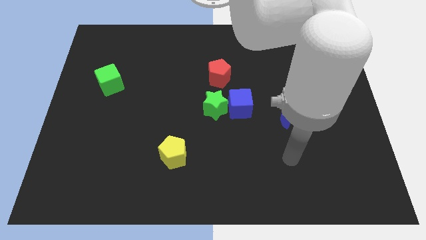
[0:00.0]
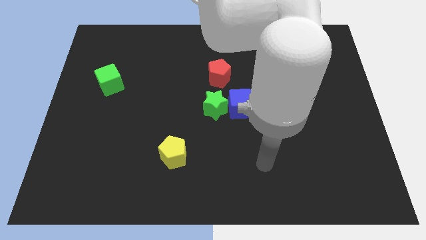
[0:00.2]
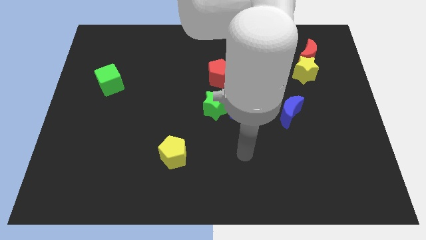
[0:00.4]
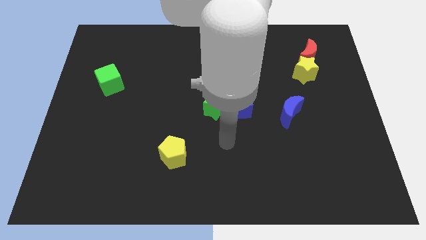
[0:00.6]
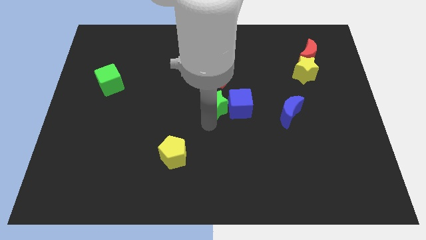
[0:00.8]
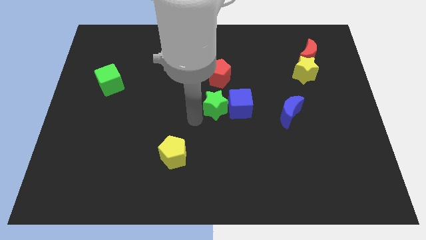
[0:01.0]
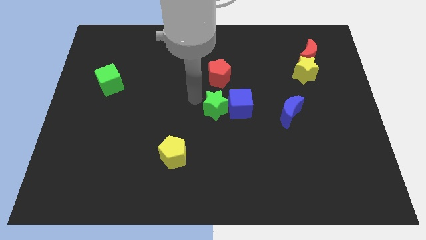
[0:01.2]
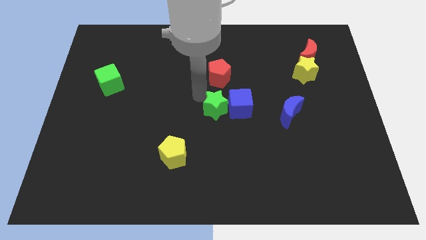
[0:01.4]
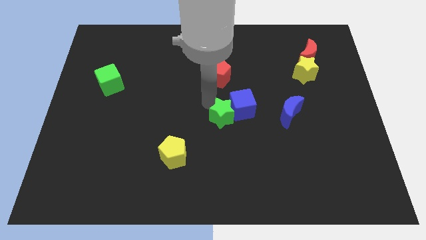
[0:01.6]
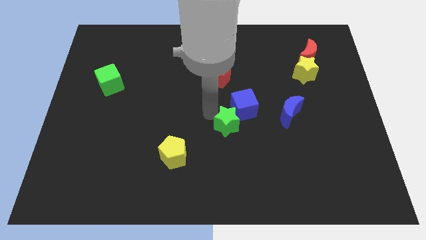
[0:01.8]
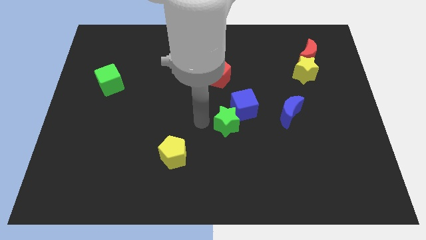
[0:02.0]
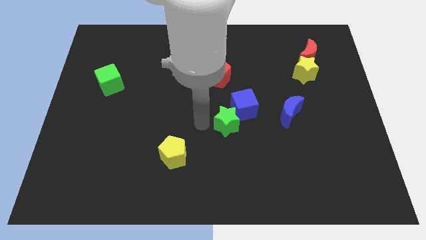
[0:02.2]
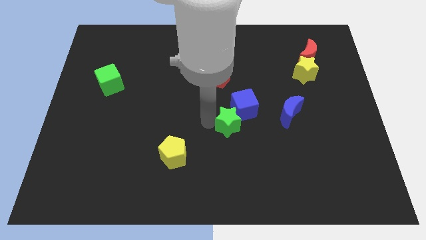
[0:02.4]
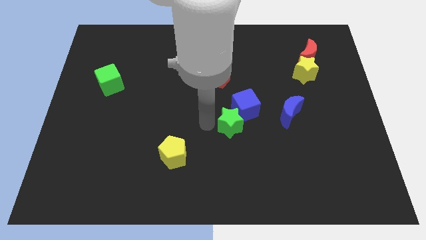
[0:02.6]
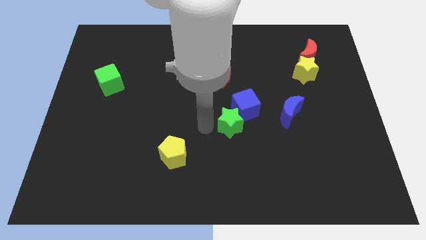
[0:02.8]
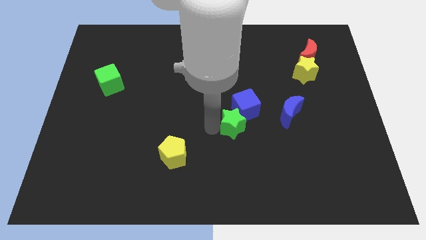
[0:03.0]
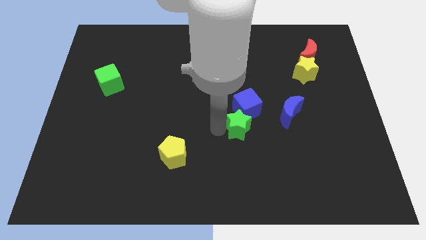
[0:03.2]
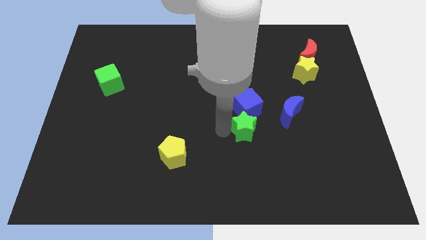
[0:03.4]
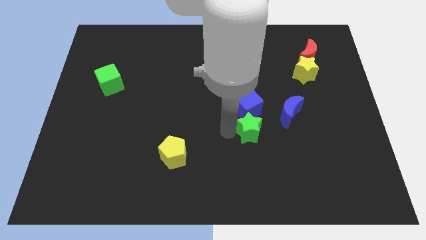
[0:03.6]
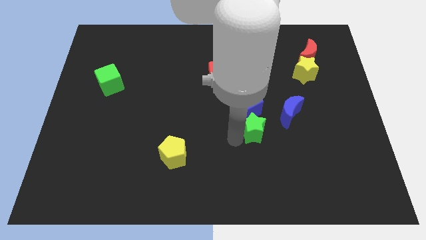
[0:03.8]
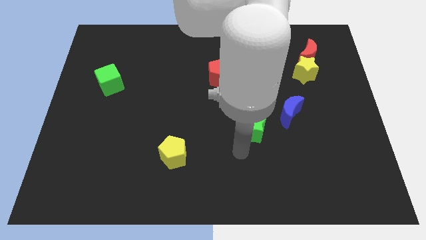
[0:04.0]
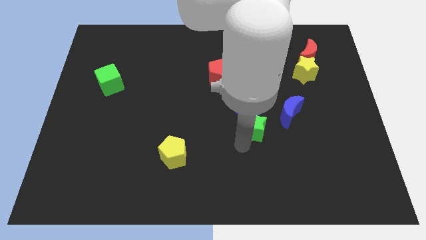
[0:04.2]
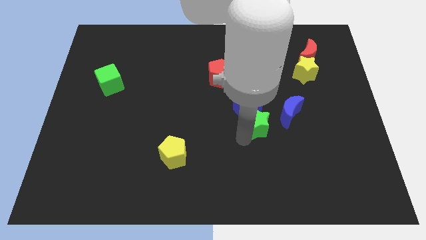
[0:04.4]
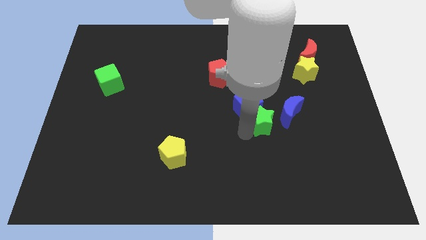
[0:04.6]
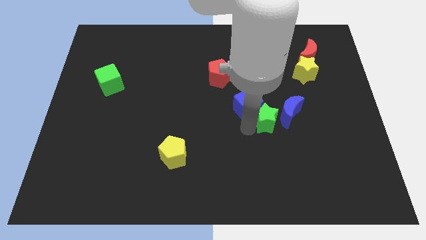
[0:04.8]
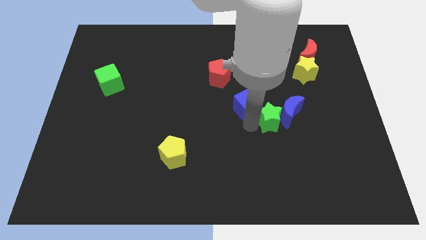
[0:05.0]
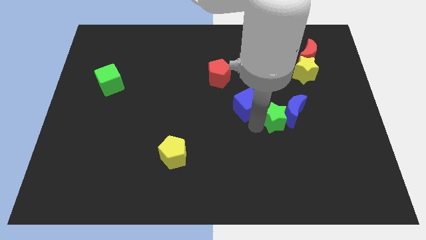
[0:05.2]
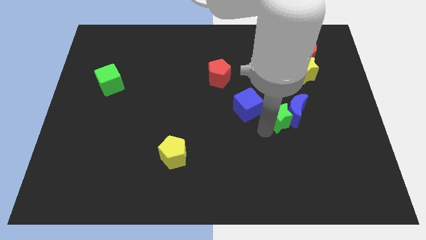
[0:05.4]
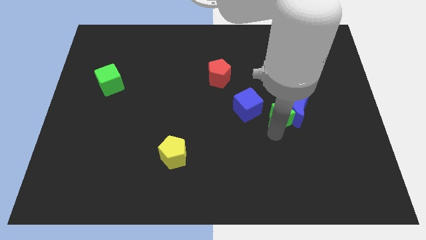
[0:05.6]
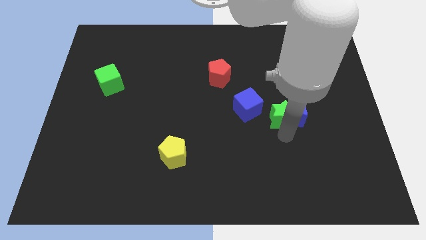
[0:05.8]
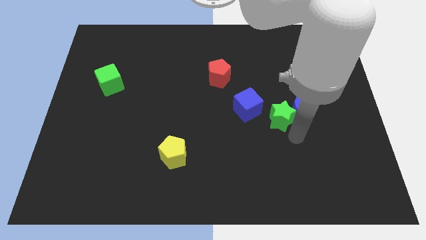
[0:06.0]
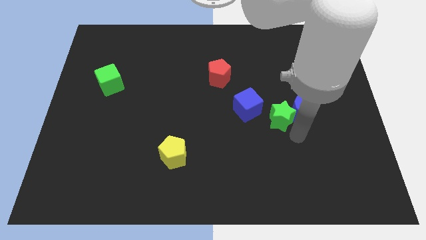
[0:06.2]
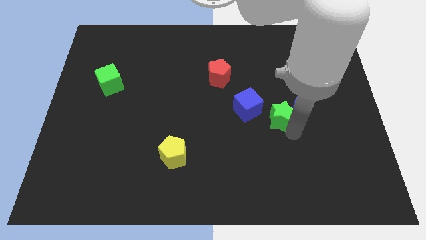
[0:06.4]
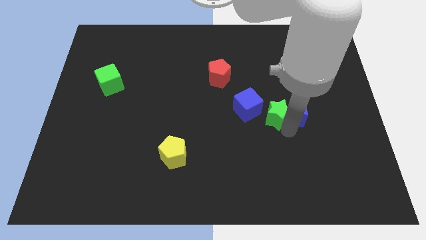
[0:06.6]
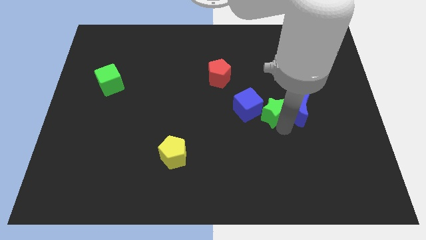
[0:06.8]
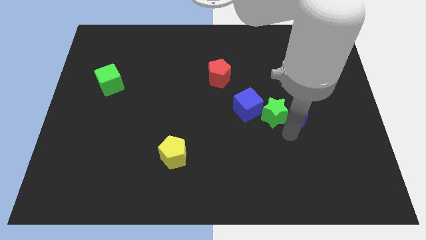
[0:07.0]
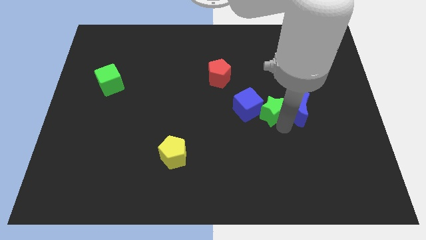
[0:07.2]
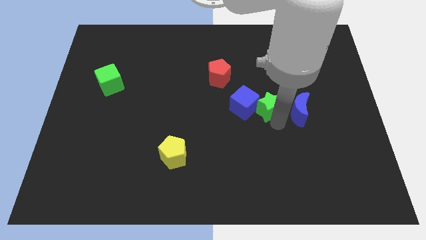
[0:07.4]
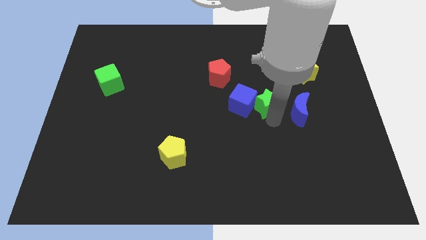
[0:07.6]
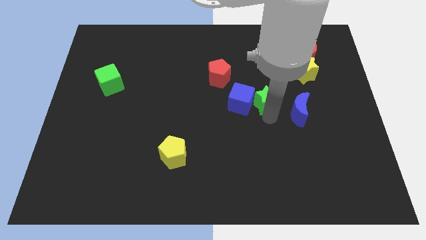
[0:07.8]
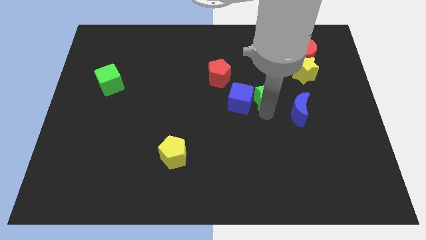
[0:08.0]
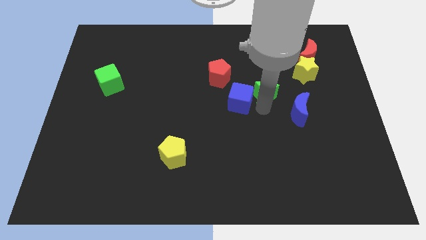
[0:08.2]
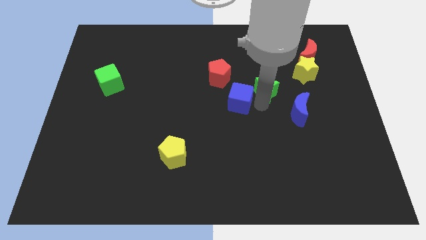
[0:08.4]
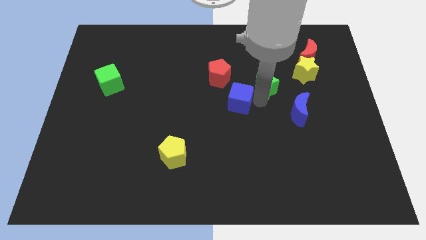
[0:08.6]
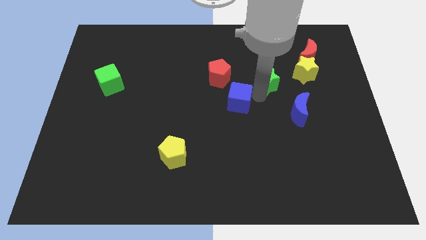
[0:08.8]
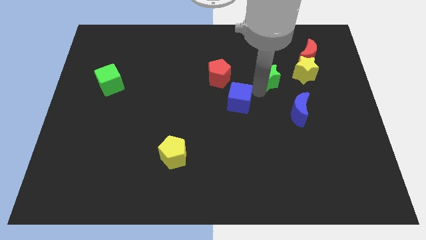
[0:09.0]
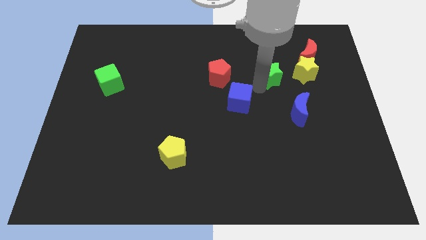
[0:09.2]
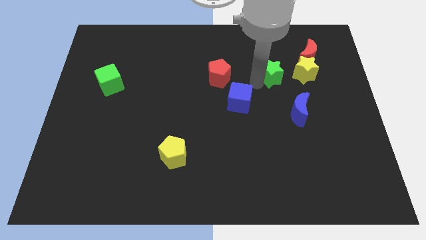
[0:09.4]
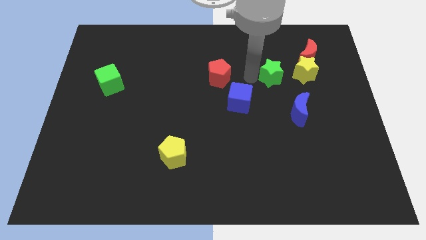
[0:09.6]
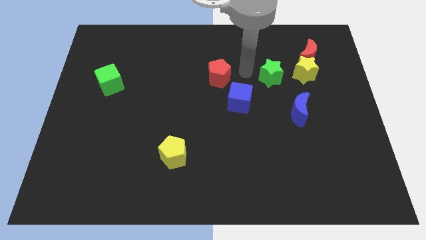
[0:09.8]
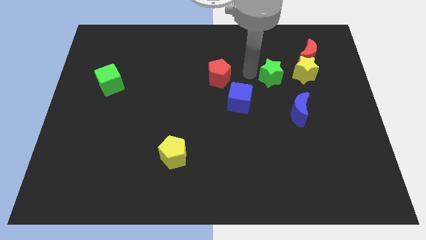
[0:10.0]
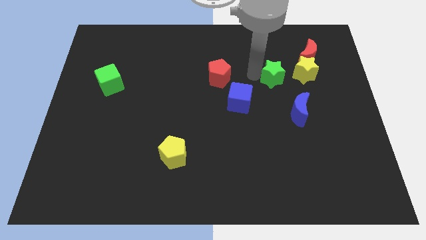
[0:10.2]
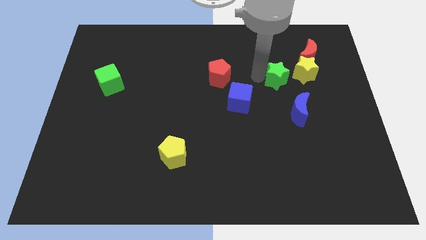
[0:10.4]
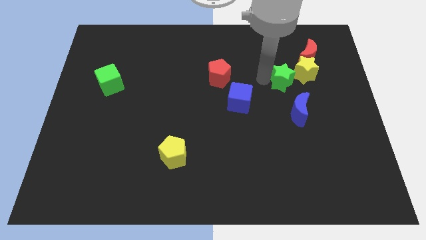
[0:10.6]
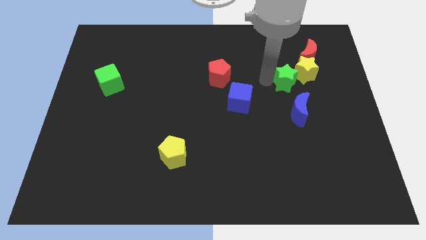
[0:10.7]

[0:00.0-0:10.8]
slide the green star close to the yellow star

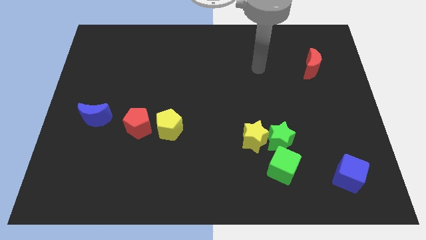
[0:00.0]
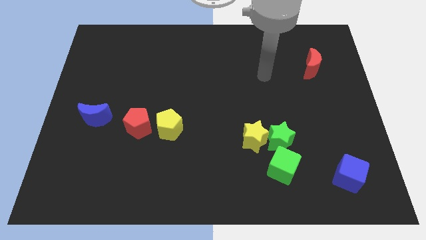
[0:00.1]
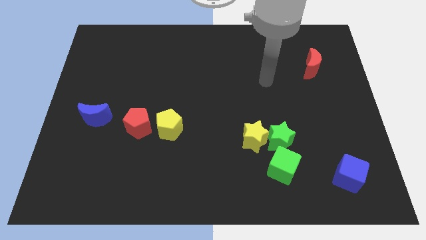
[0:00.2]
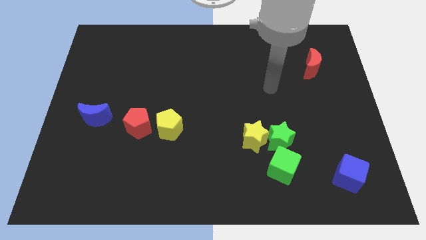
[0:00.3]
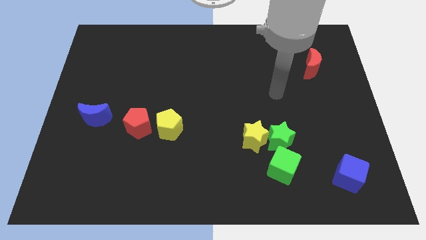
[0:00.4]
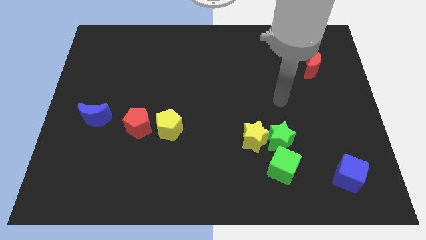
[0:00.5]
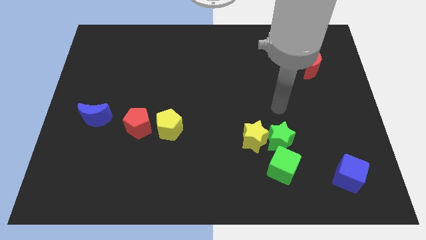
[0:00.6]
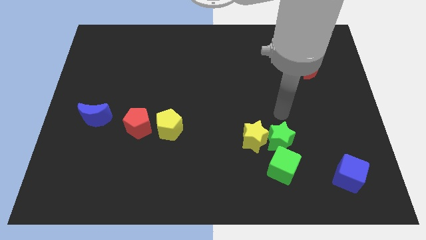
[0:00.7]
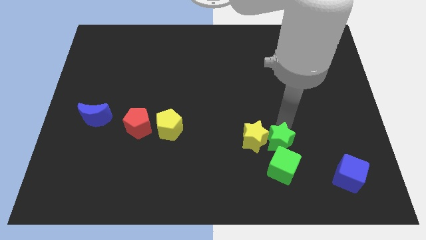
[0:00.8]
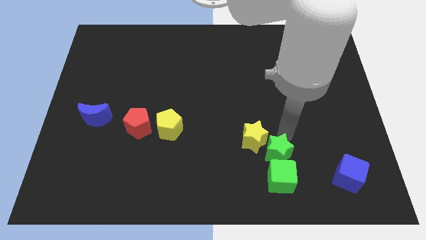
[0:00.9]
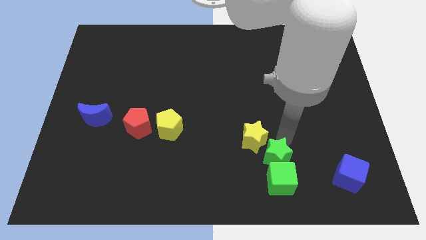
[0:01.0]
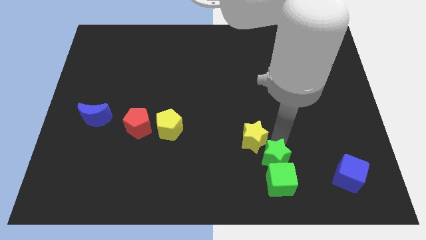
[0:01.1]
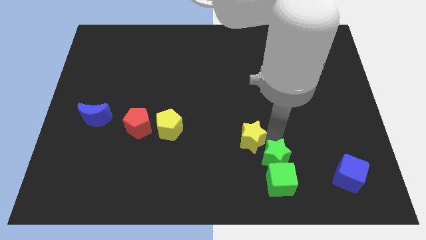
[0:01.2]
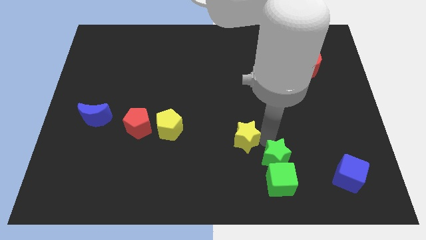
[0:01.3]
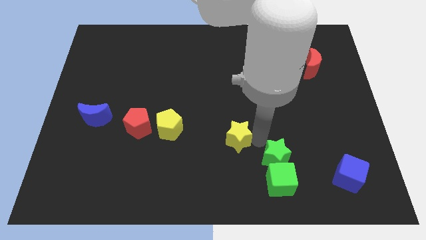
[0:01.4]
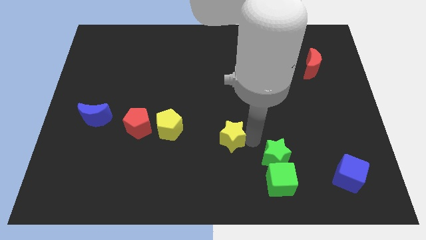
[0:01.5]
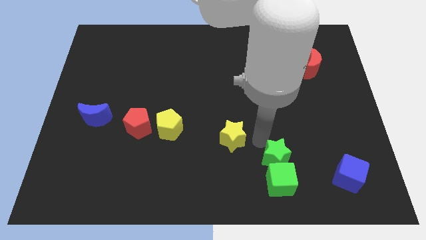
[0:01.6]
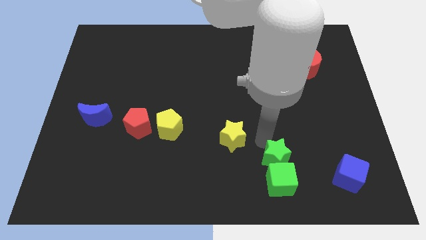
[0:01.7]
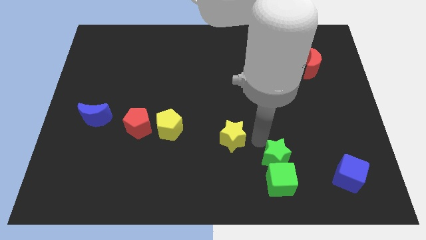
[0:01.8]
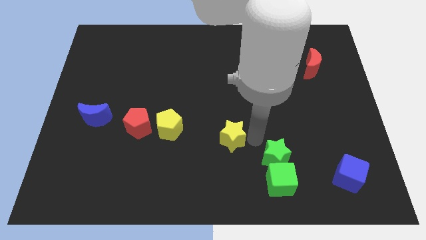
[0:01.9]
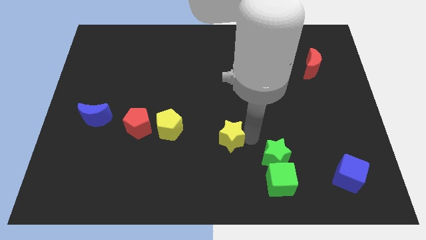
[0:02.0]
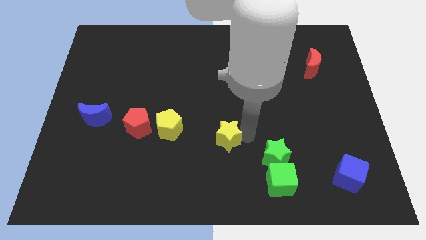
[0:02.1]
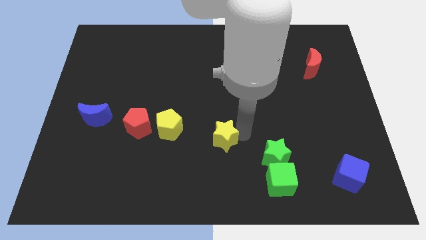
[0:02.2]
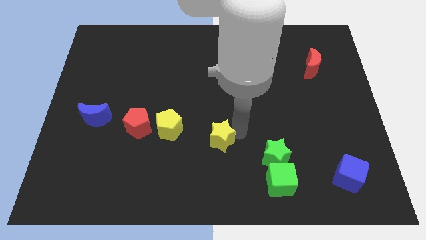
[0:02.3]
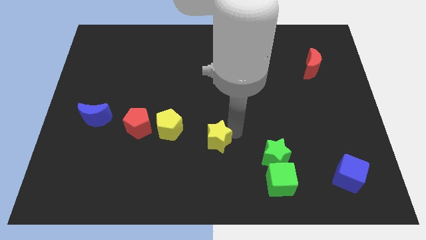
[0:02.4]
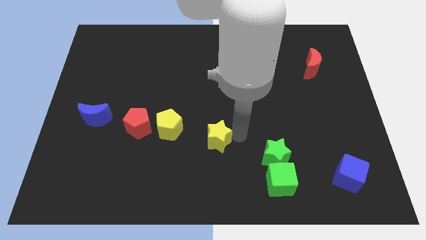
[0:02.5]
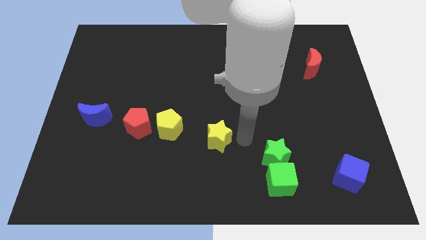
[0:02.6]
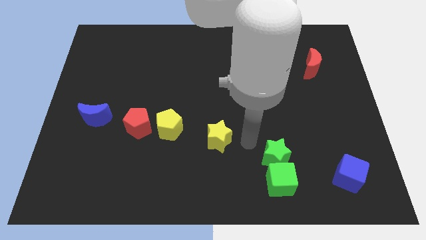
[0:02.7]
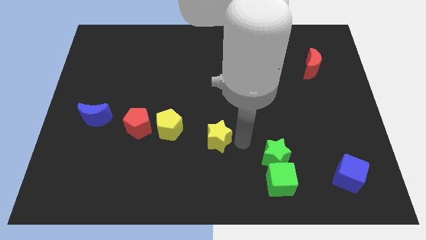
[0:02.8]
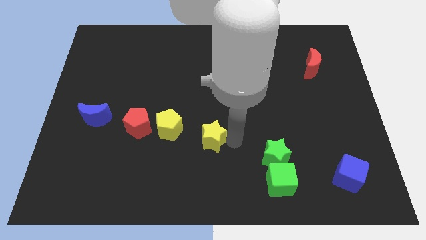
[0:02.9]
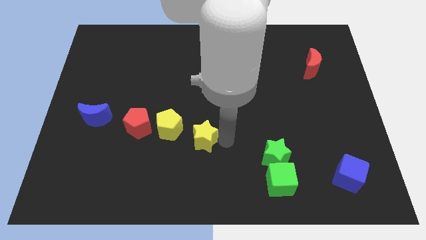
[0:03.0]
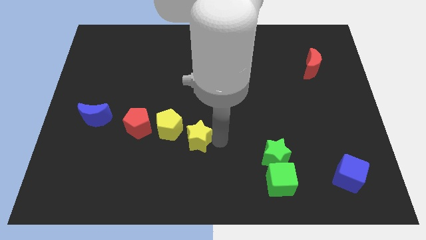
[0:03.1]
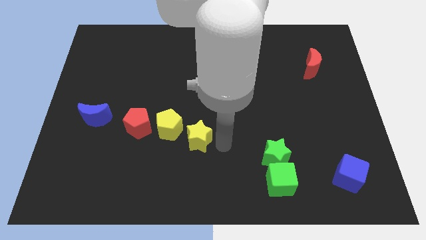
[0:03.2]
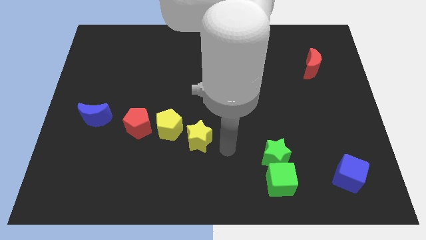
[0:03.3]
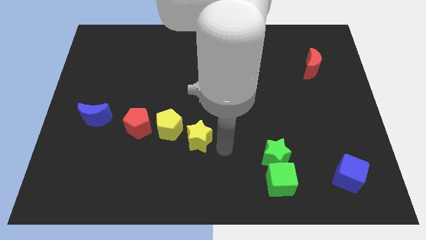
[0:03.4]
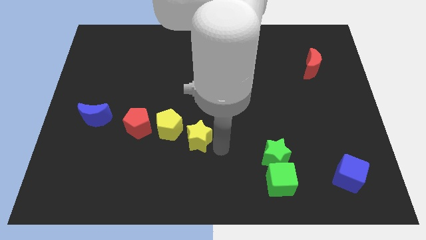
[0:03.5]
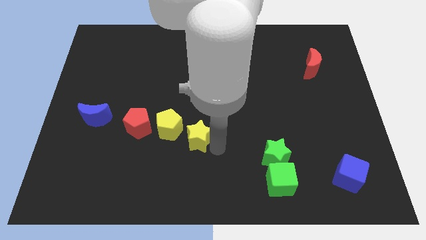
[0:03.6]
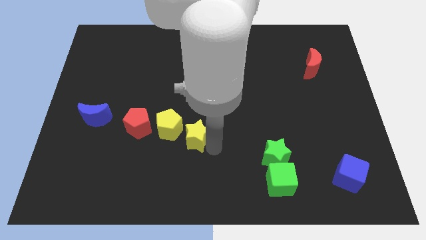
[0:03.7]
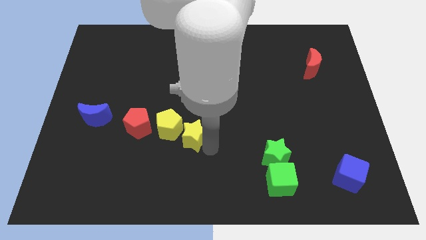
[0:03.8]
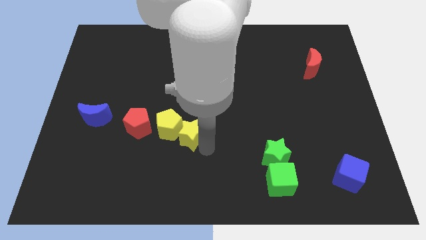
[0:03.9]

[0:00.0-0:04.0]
slide the yellow star close to the yellow pentagon
